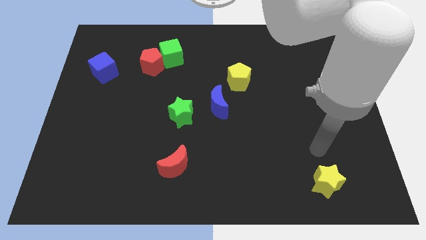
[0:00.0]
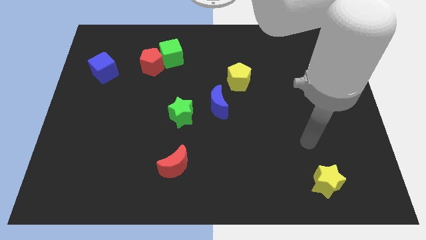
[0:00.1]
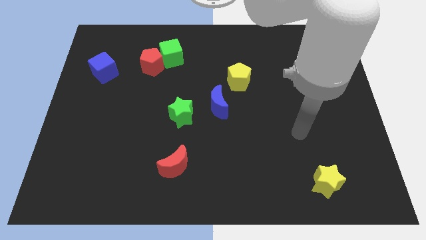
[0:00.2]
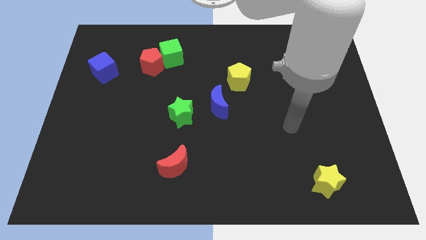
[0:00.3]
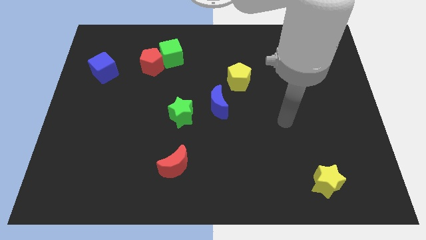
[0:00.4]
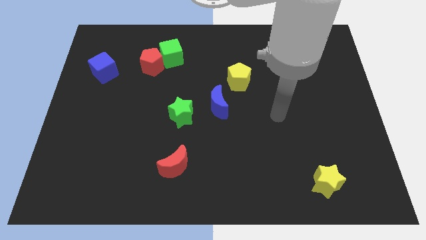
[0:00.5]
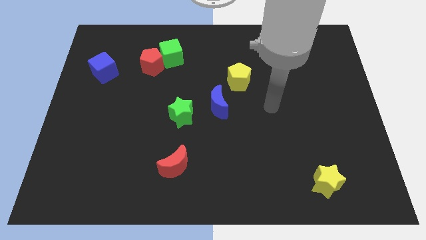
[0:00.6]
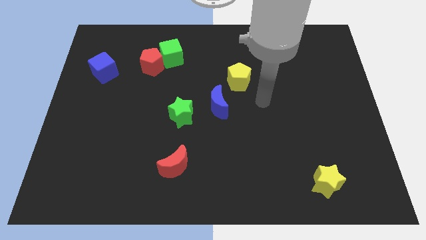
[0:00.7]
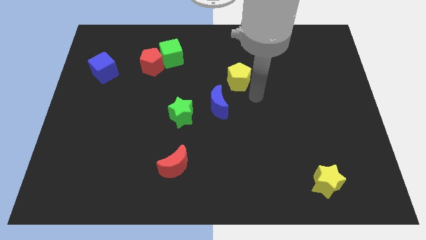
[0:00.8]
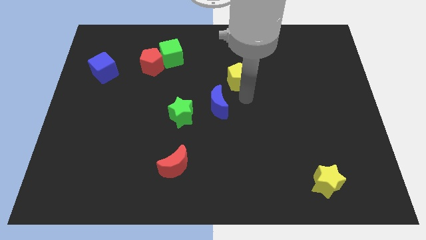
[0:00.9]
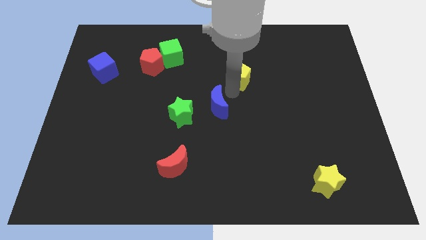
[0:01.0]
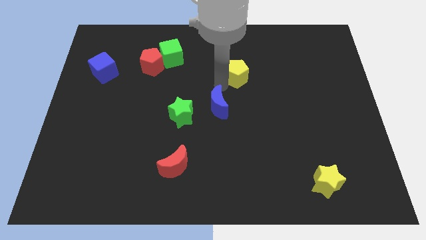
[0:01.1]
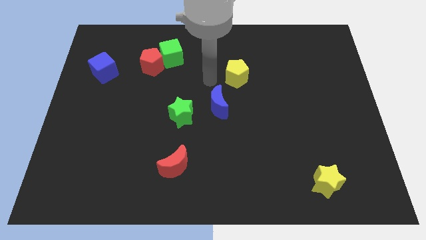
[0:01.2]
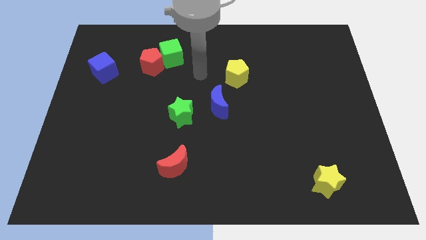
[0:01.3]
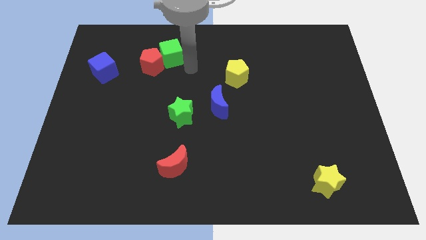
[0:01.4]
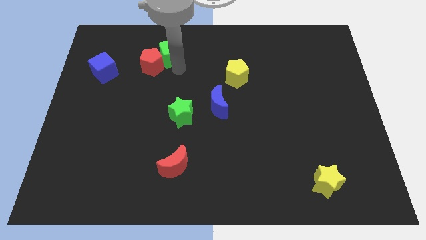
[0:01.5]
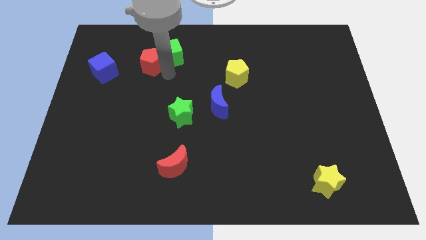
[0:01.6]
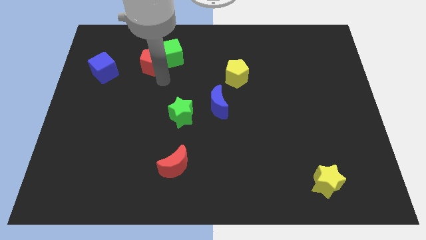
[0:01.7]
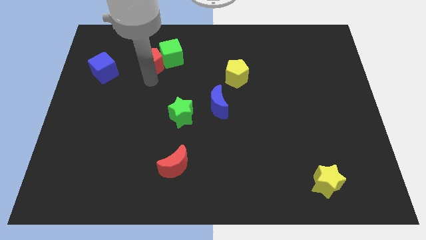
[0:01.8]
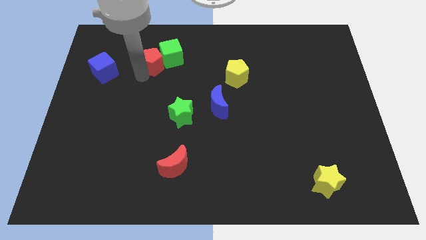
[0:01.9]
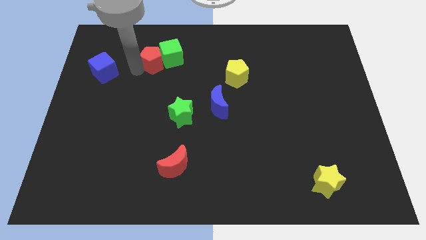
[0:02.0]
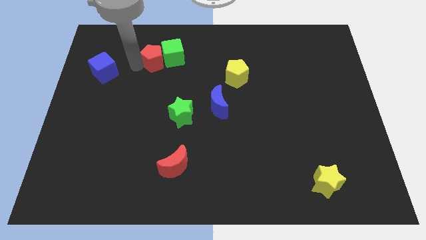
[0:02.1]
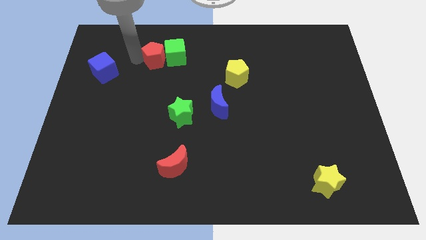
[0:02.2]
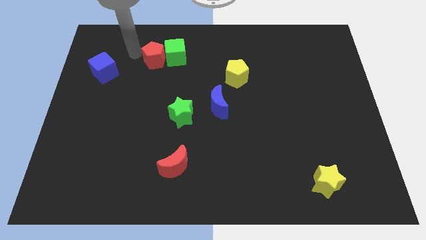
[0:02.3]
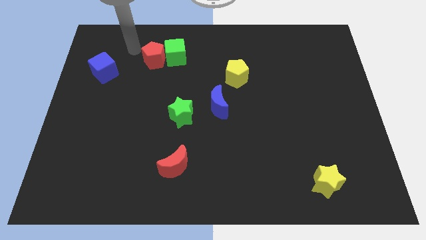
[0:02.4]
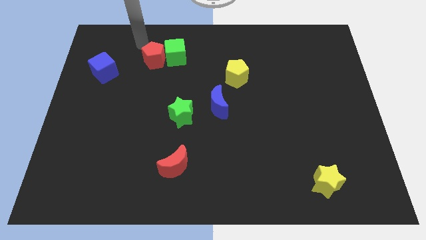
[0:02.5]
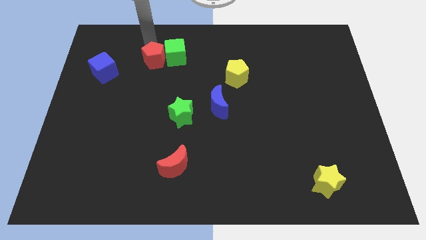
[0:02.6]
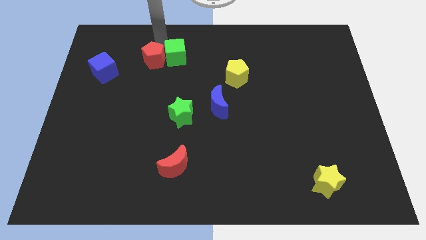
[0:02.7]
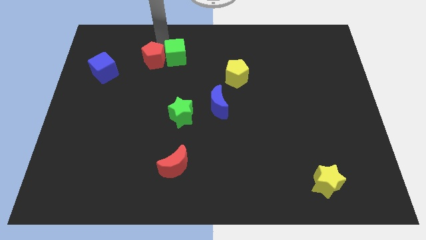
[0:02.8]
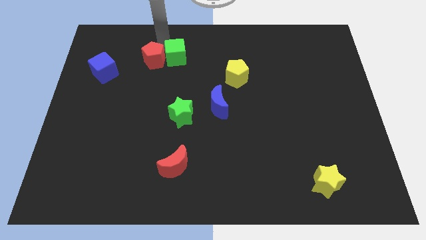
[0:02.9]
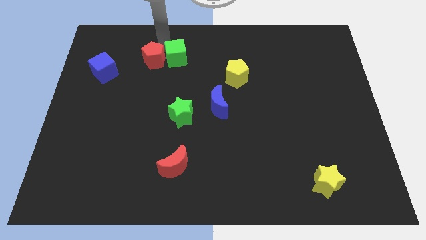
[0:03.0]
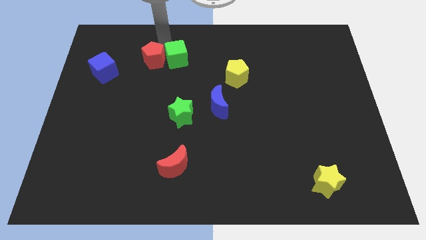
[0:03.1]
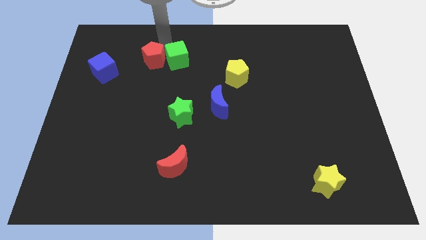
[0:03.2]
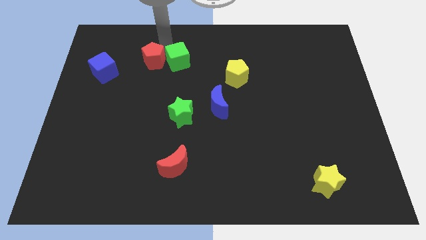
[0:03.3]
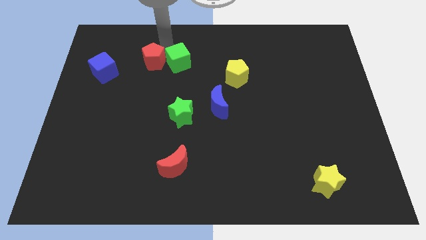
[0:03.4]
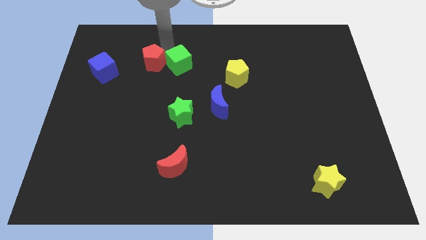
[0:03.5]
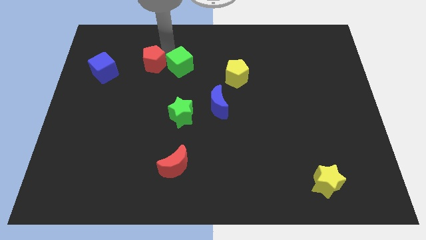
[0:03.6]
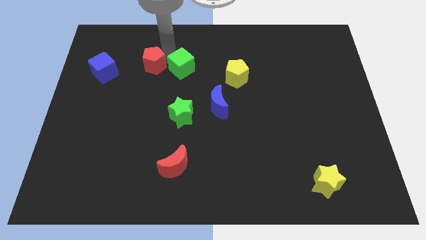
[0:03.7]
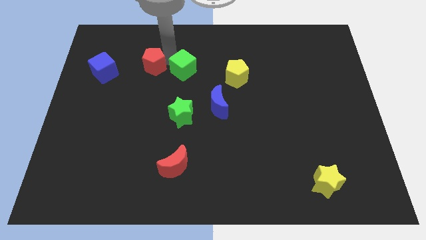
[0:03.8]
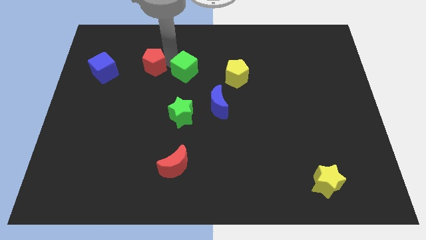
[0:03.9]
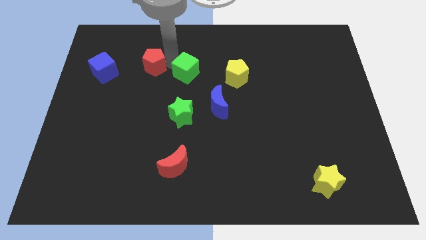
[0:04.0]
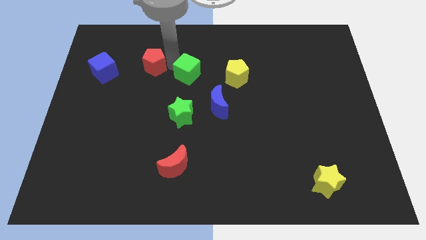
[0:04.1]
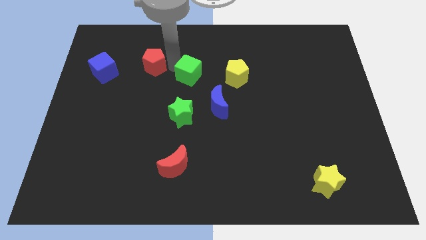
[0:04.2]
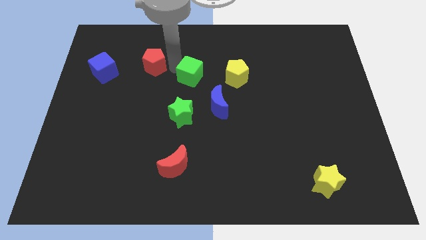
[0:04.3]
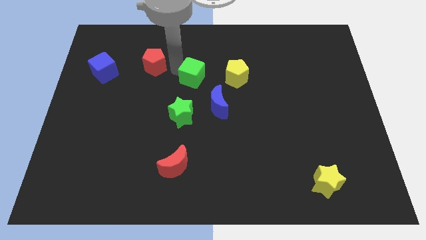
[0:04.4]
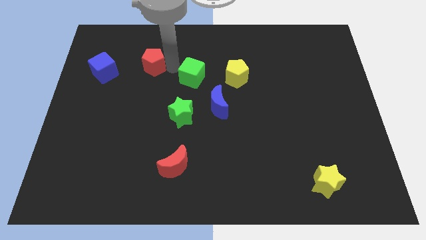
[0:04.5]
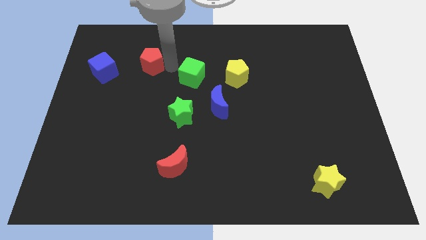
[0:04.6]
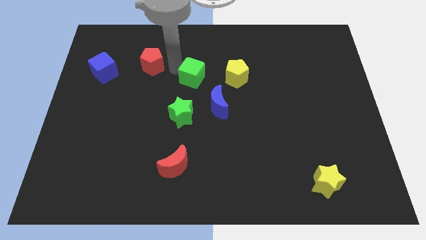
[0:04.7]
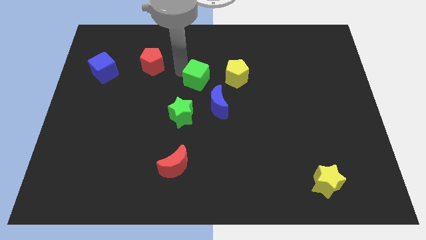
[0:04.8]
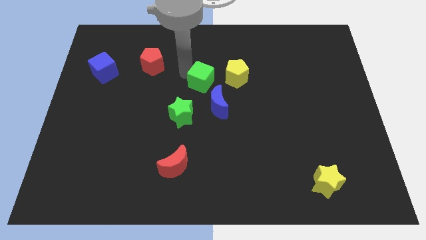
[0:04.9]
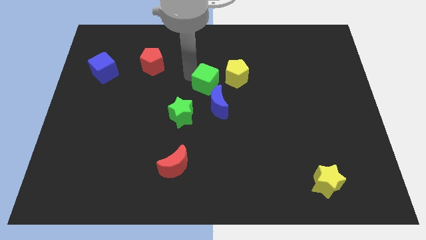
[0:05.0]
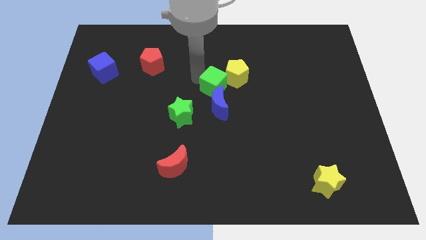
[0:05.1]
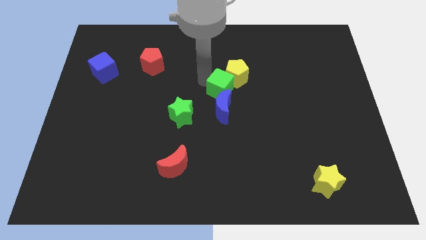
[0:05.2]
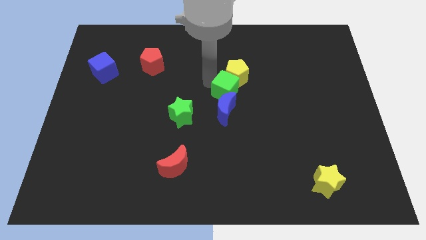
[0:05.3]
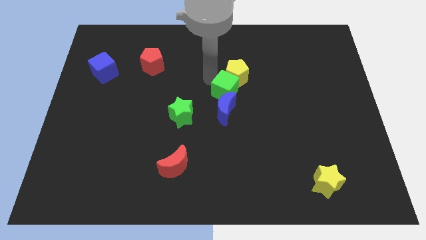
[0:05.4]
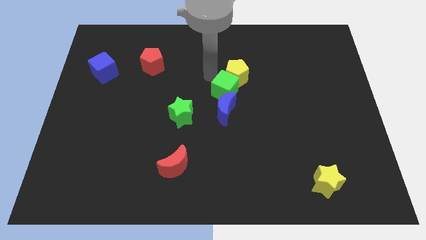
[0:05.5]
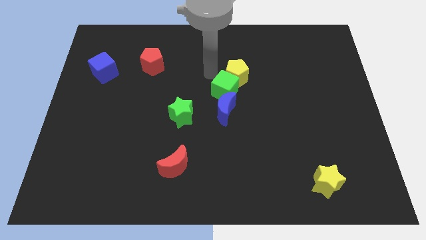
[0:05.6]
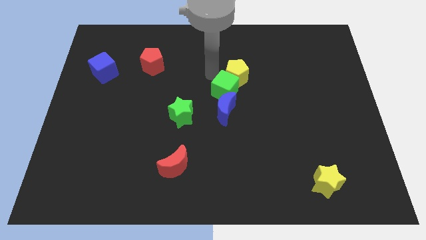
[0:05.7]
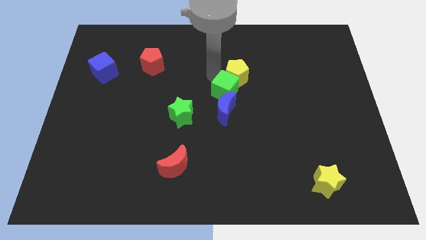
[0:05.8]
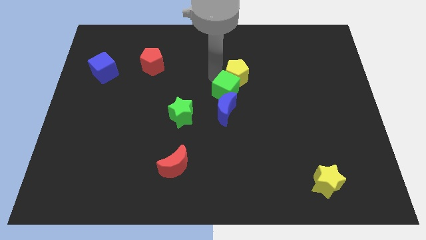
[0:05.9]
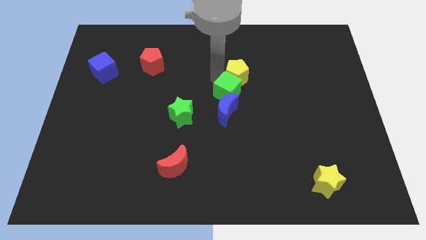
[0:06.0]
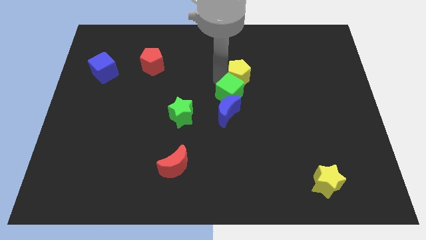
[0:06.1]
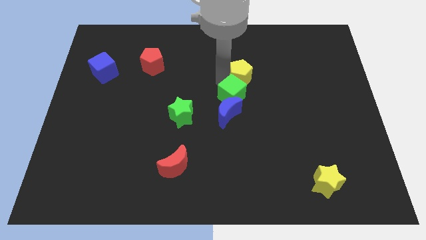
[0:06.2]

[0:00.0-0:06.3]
slide the green cube down and then to the right

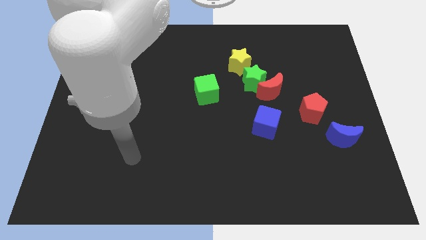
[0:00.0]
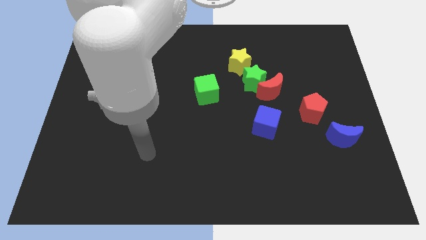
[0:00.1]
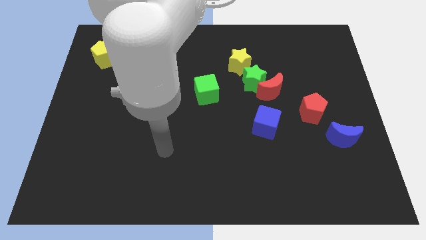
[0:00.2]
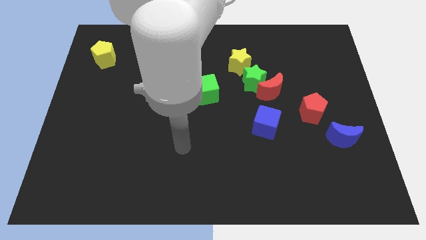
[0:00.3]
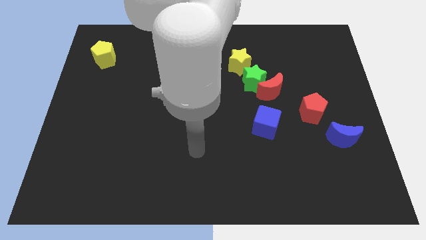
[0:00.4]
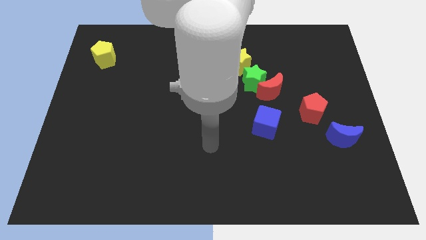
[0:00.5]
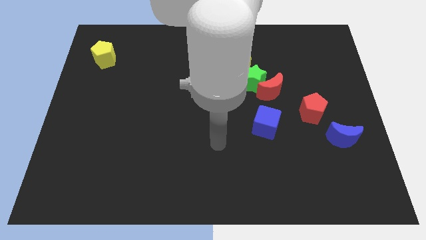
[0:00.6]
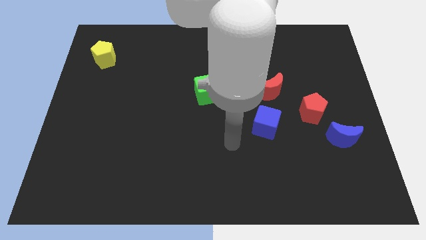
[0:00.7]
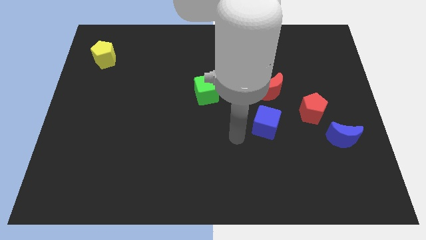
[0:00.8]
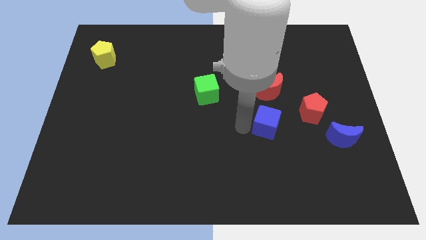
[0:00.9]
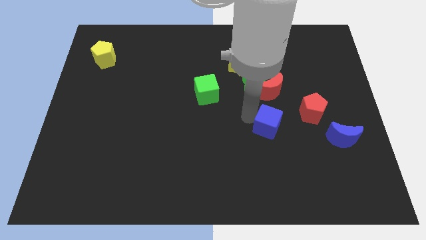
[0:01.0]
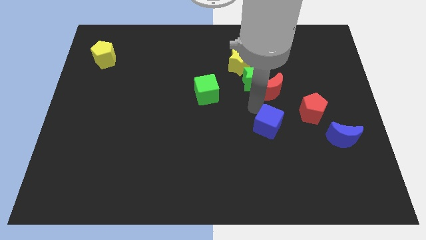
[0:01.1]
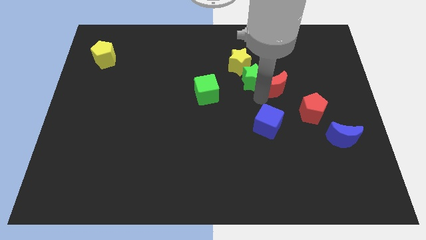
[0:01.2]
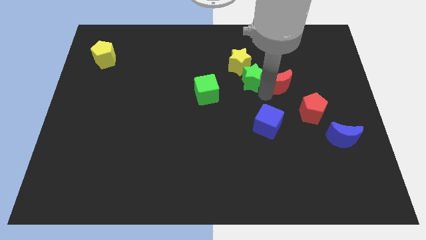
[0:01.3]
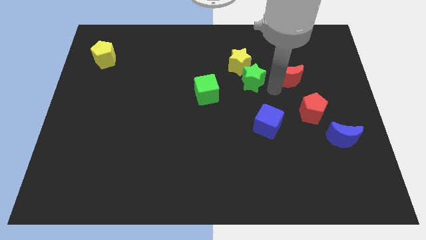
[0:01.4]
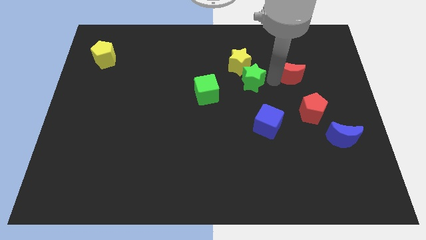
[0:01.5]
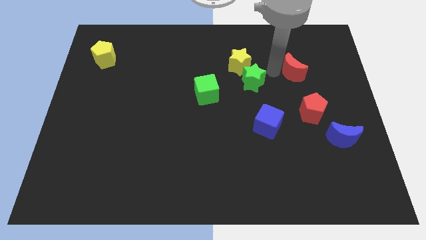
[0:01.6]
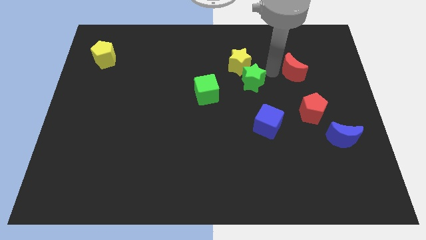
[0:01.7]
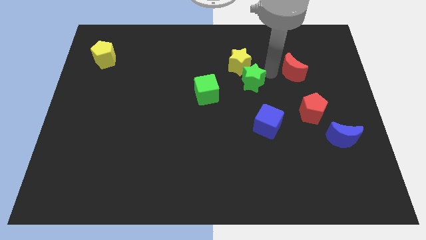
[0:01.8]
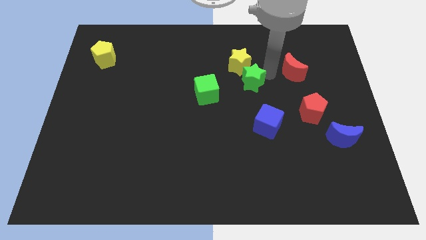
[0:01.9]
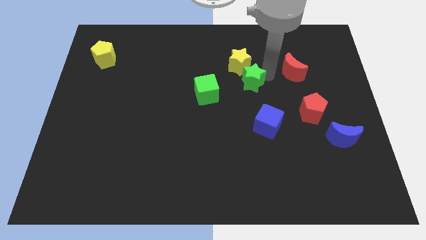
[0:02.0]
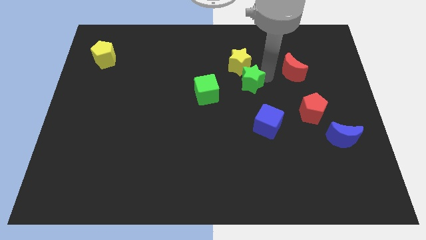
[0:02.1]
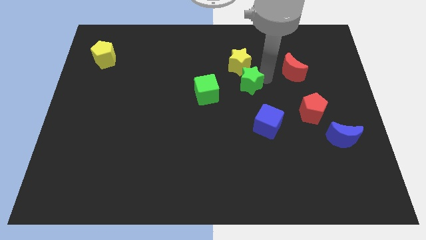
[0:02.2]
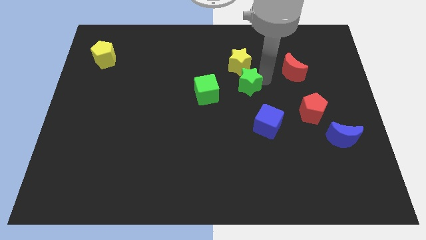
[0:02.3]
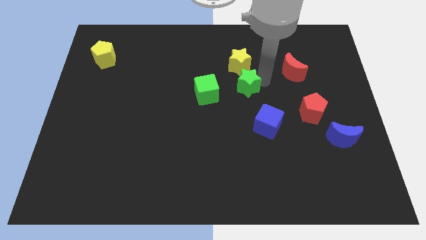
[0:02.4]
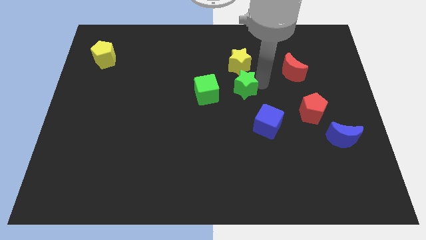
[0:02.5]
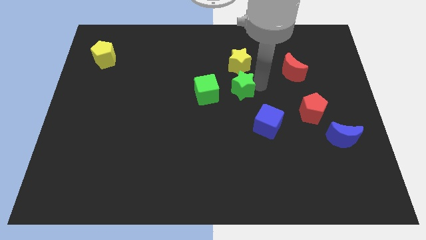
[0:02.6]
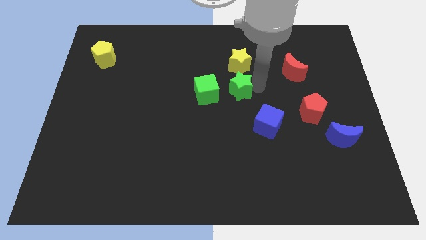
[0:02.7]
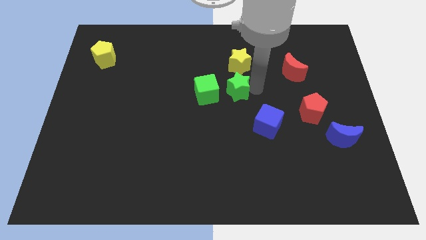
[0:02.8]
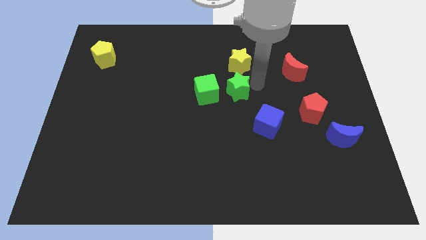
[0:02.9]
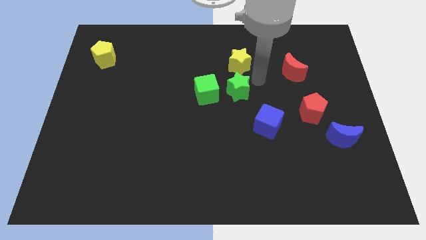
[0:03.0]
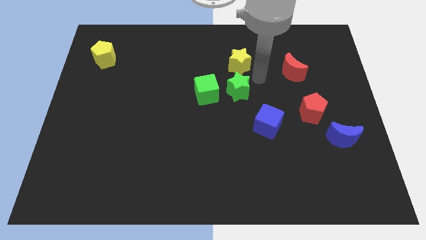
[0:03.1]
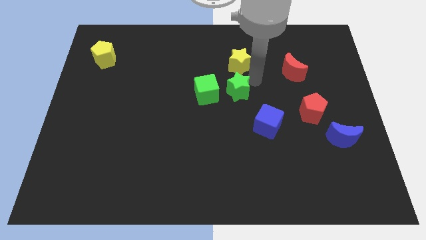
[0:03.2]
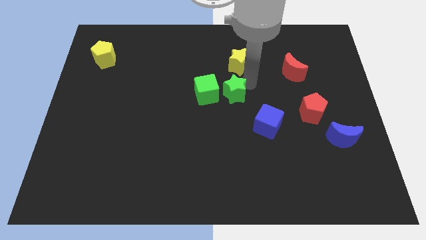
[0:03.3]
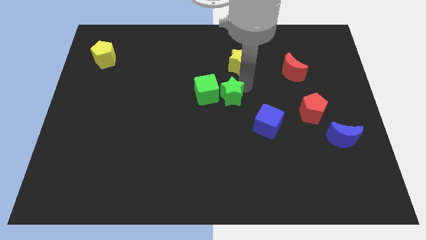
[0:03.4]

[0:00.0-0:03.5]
slightly slide the green star downwards and to the left diagonally
